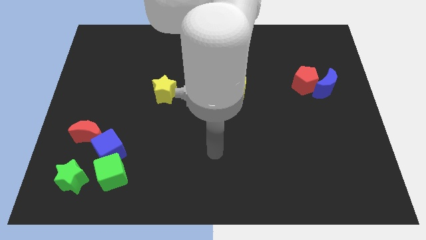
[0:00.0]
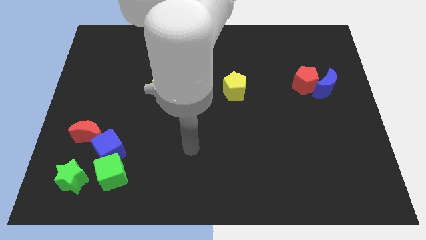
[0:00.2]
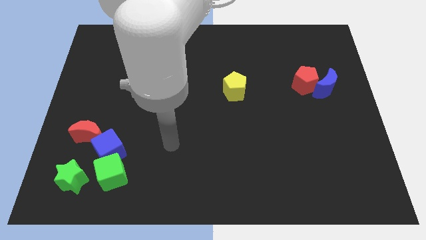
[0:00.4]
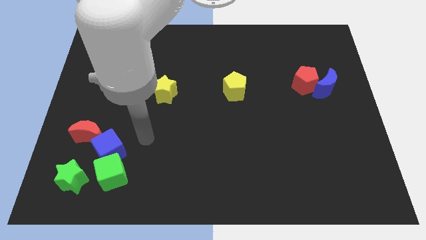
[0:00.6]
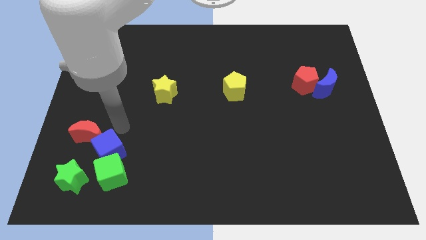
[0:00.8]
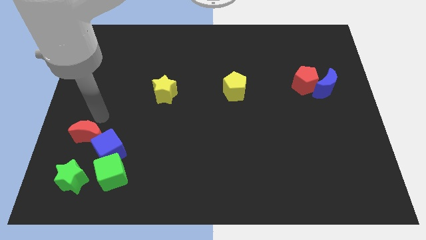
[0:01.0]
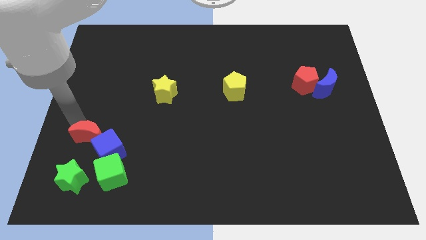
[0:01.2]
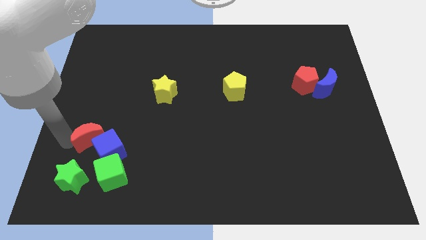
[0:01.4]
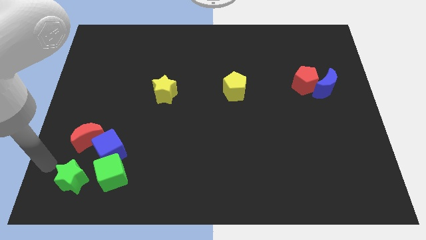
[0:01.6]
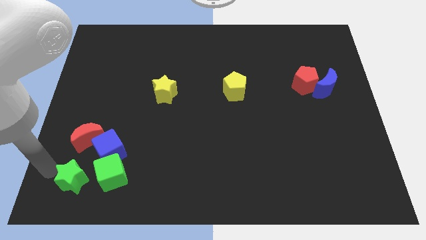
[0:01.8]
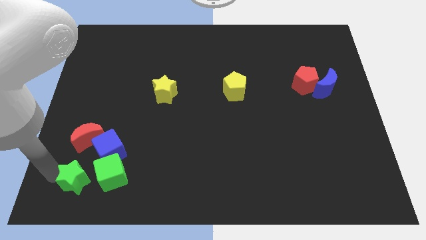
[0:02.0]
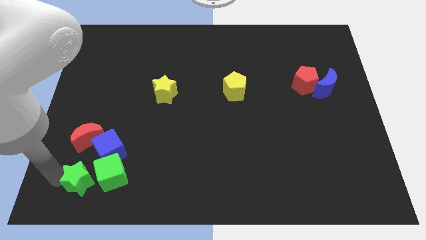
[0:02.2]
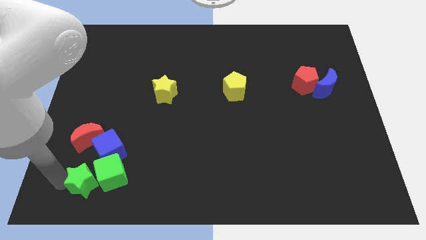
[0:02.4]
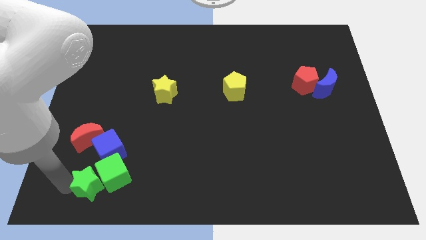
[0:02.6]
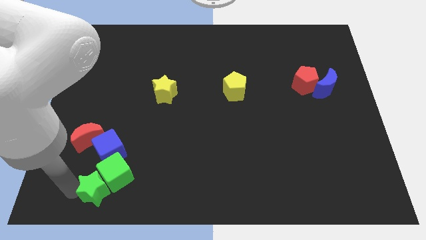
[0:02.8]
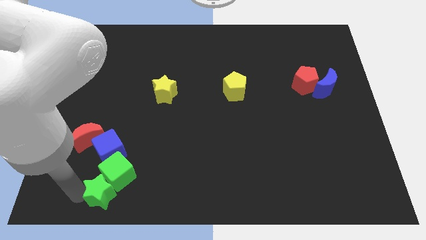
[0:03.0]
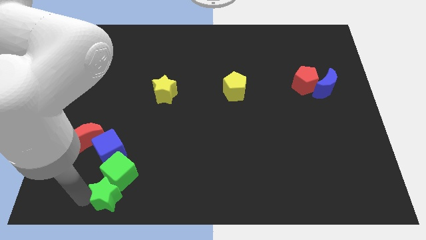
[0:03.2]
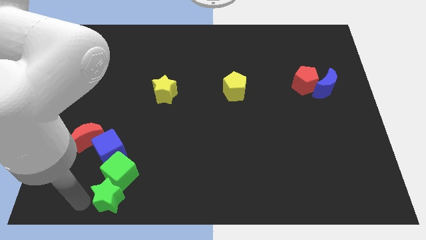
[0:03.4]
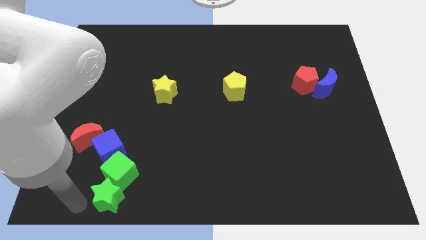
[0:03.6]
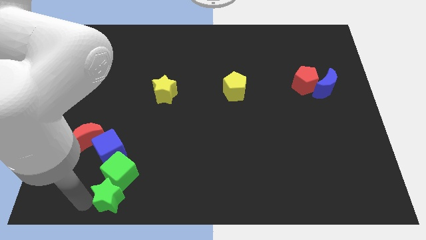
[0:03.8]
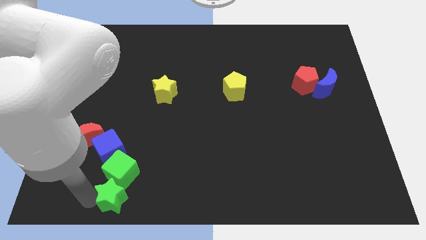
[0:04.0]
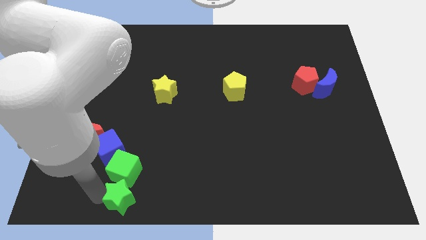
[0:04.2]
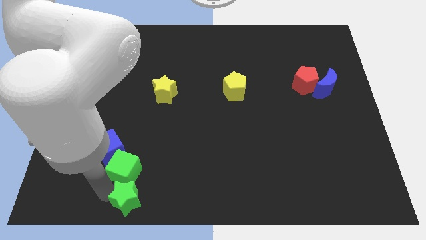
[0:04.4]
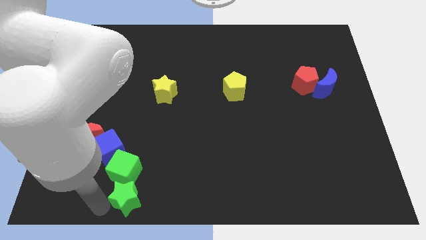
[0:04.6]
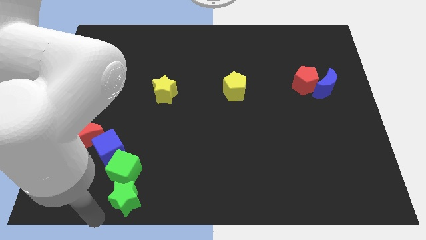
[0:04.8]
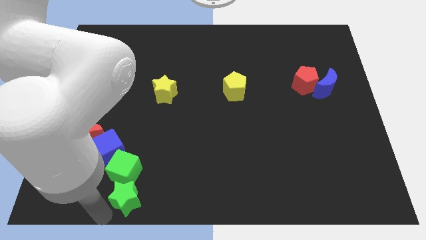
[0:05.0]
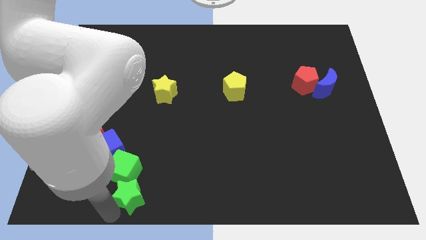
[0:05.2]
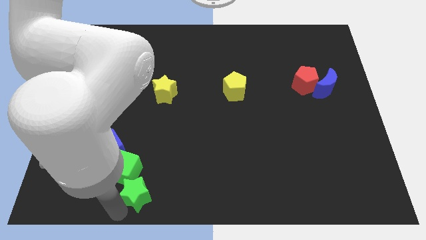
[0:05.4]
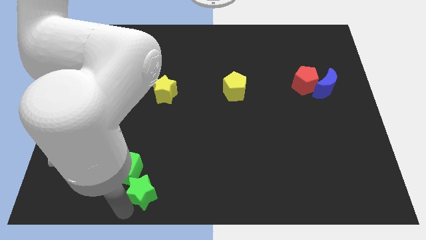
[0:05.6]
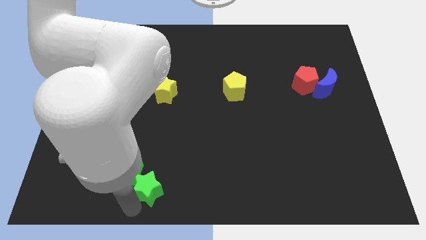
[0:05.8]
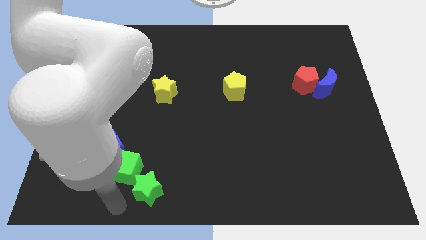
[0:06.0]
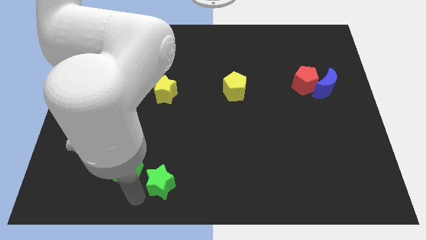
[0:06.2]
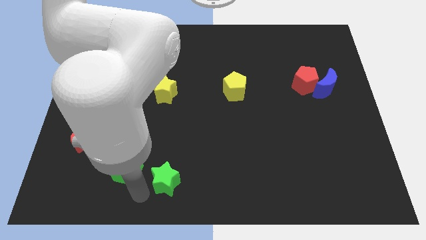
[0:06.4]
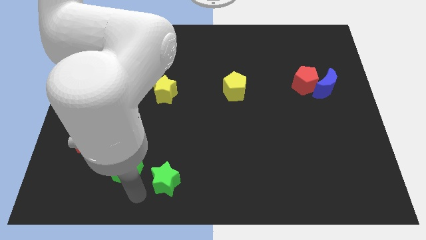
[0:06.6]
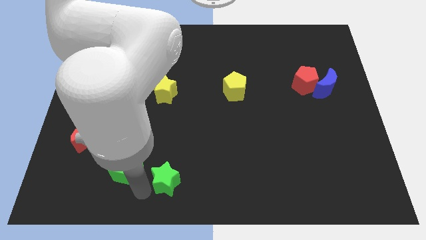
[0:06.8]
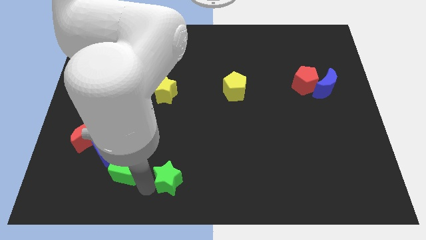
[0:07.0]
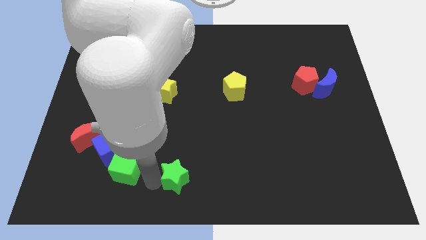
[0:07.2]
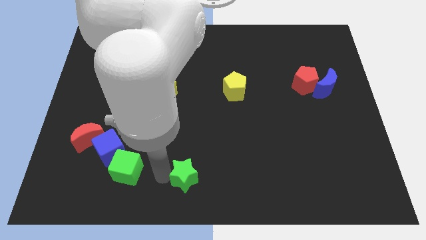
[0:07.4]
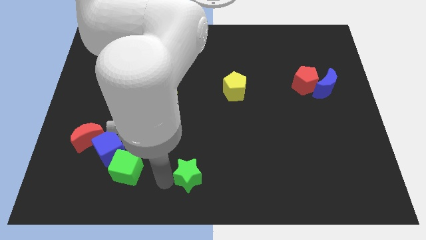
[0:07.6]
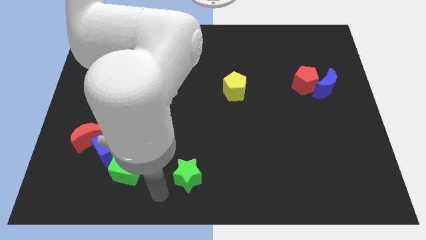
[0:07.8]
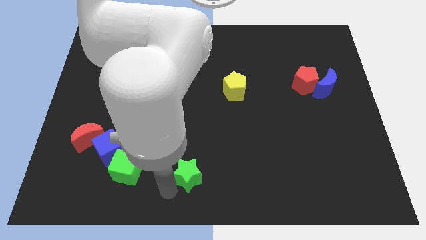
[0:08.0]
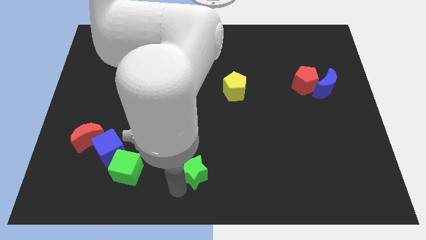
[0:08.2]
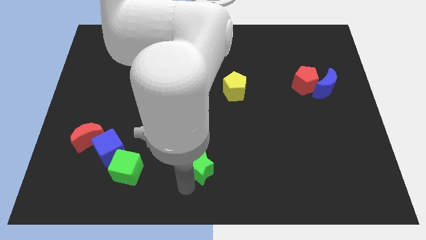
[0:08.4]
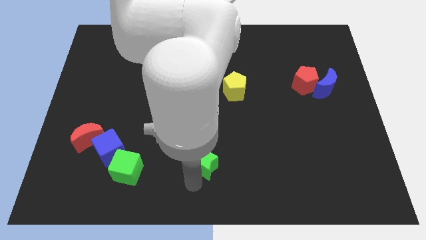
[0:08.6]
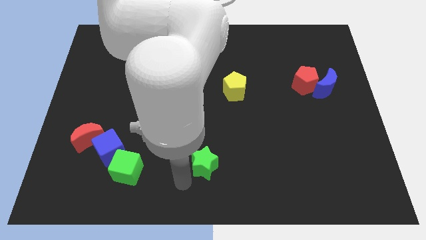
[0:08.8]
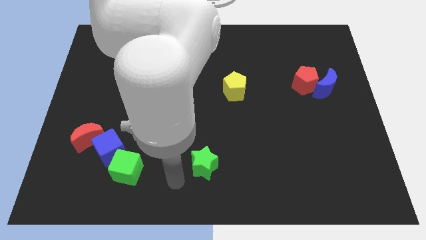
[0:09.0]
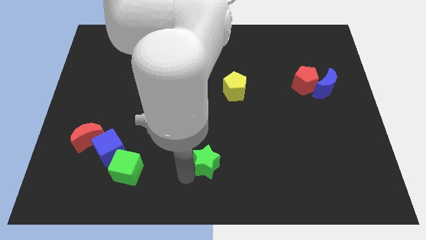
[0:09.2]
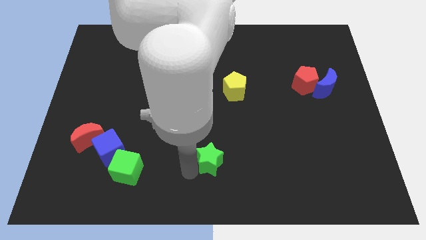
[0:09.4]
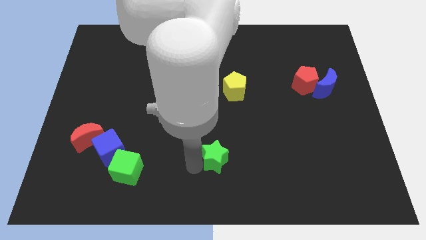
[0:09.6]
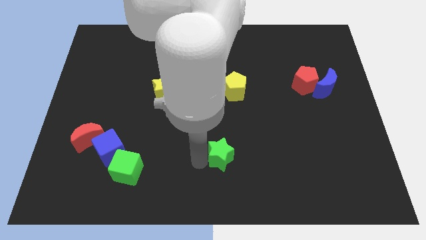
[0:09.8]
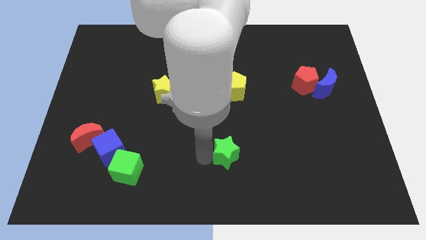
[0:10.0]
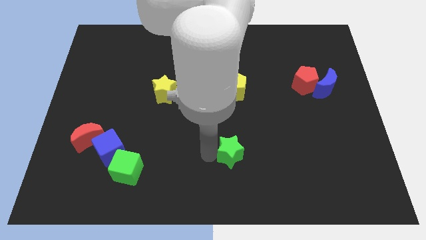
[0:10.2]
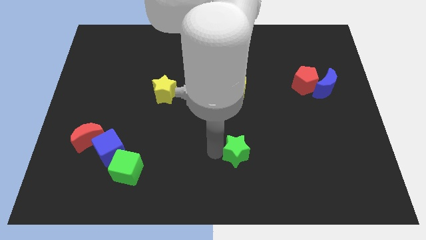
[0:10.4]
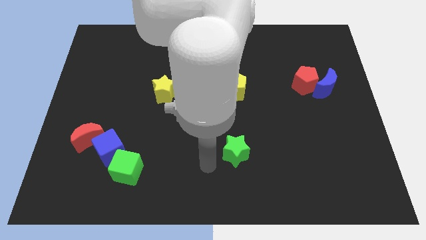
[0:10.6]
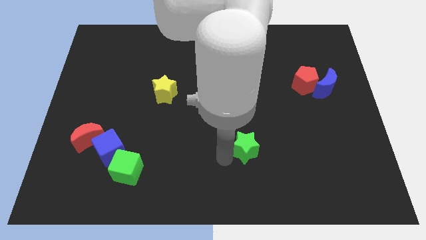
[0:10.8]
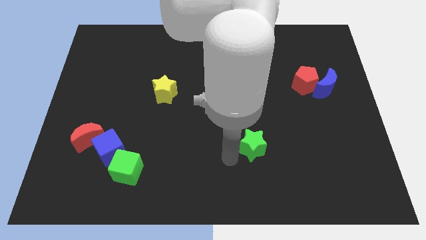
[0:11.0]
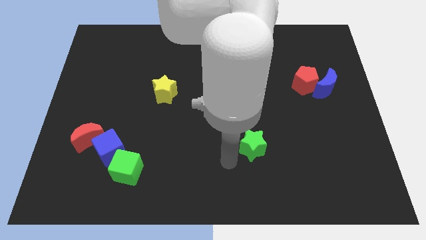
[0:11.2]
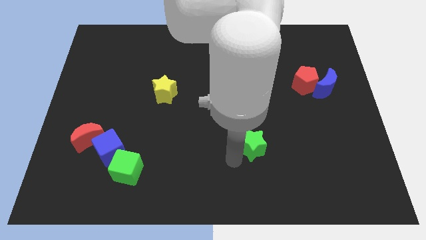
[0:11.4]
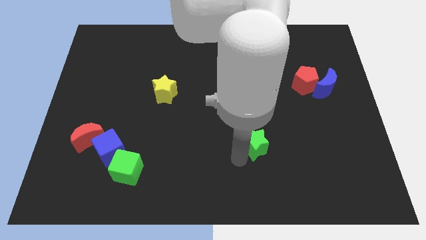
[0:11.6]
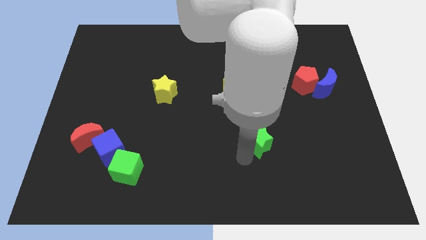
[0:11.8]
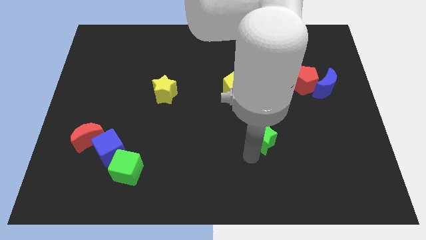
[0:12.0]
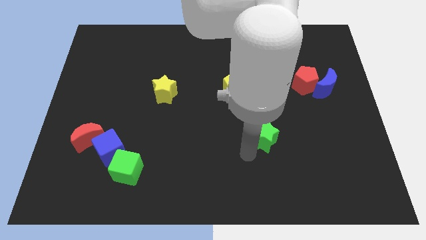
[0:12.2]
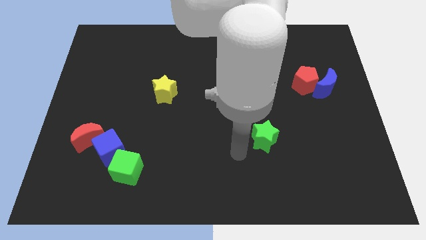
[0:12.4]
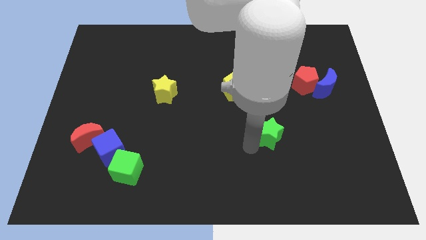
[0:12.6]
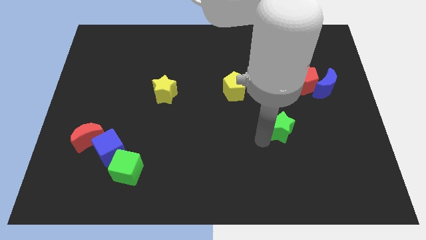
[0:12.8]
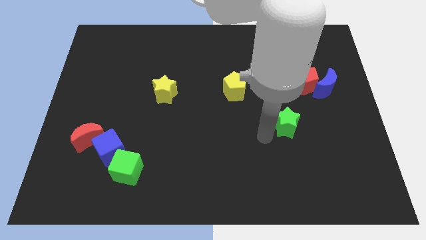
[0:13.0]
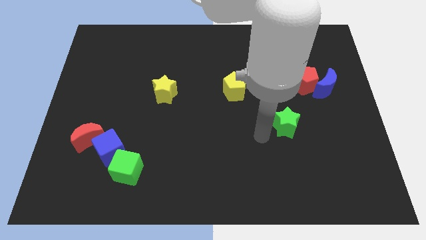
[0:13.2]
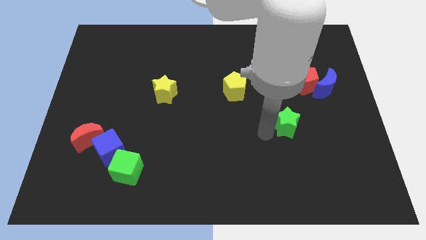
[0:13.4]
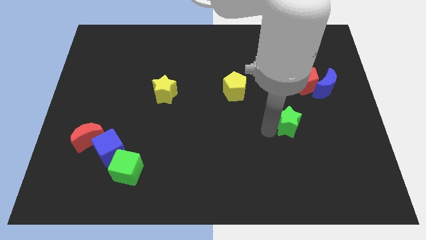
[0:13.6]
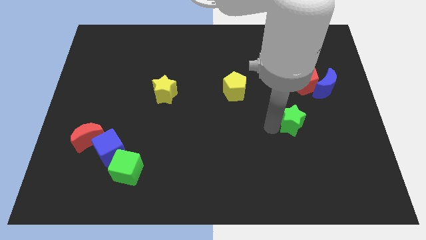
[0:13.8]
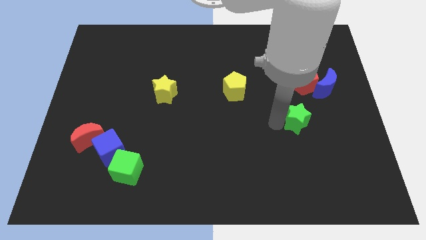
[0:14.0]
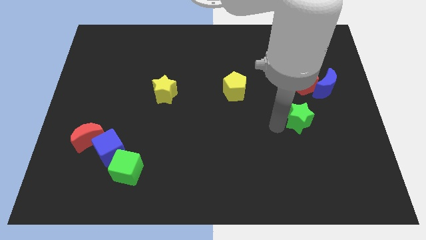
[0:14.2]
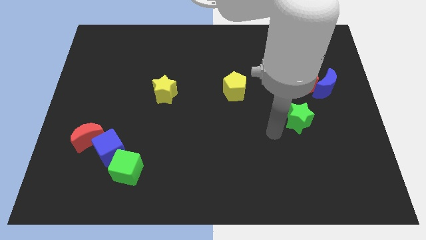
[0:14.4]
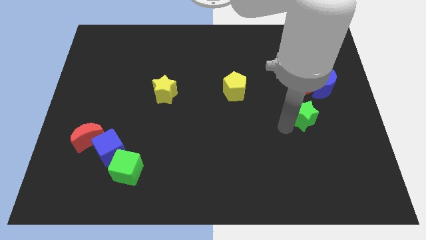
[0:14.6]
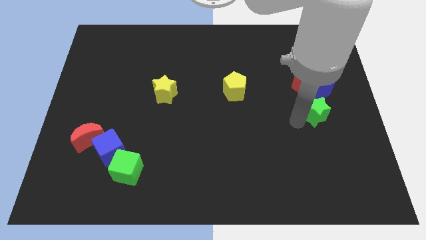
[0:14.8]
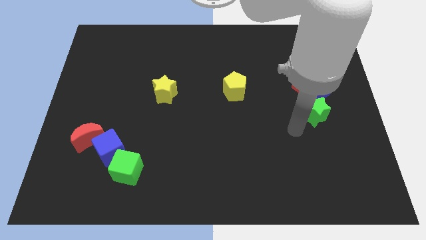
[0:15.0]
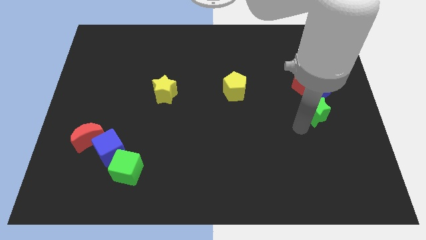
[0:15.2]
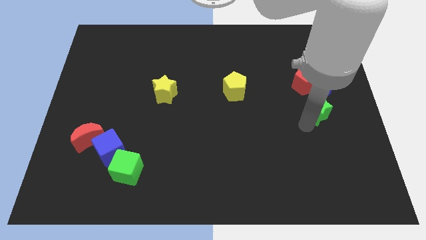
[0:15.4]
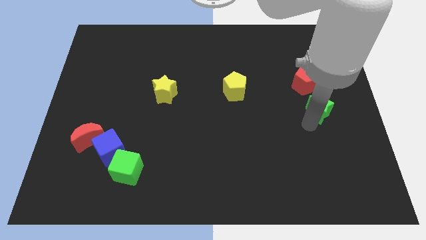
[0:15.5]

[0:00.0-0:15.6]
move the green star to the bottom right of the red pentagon
